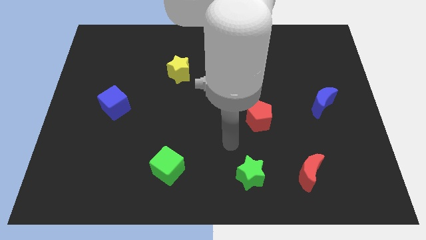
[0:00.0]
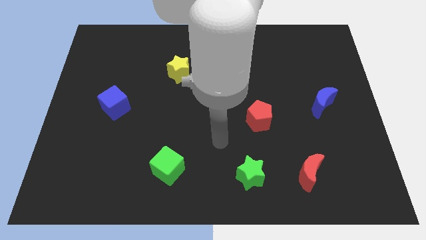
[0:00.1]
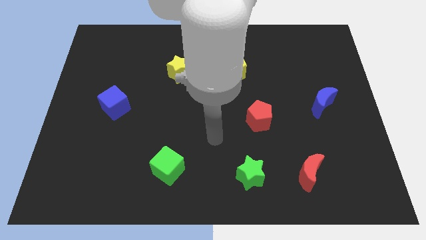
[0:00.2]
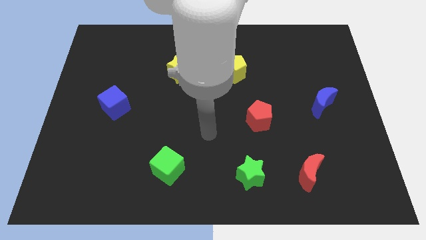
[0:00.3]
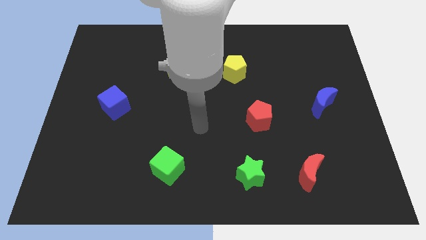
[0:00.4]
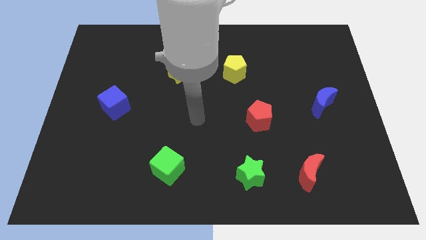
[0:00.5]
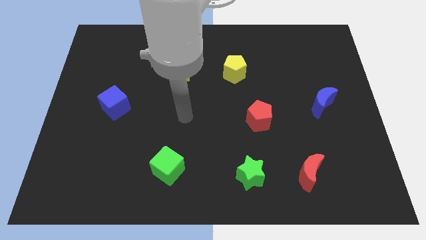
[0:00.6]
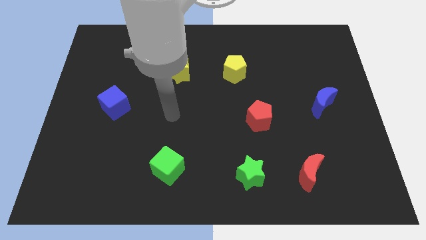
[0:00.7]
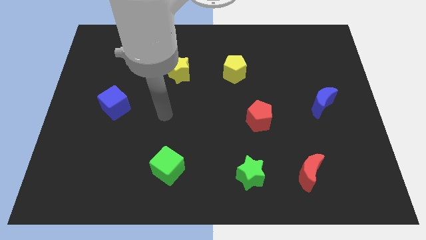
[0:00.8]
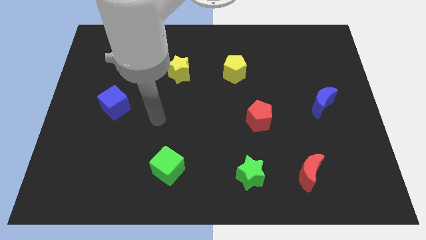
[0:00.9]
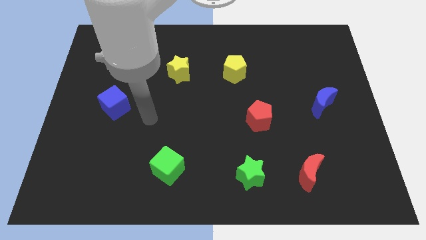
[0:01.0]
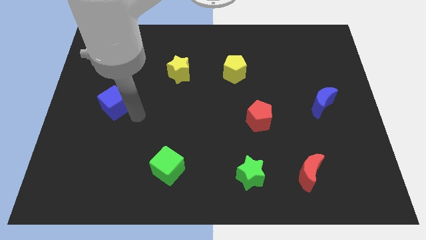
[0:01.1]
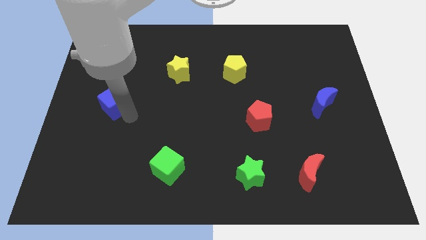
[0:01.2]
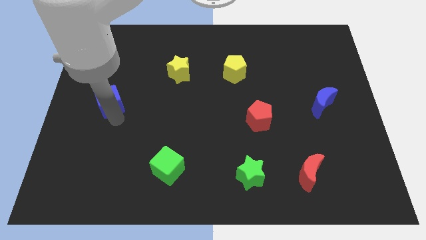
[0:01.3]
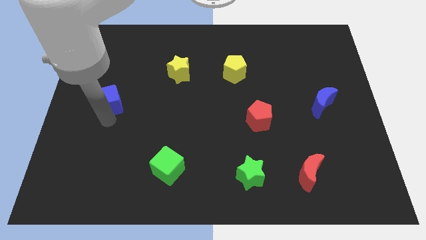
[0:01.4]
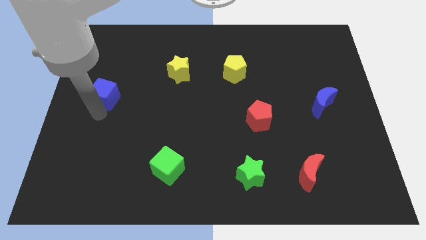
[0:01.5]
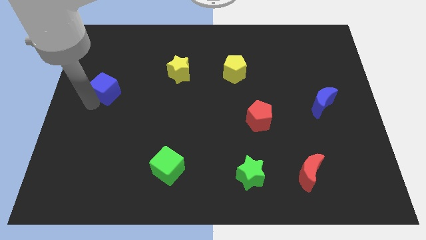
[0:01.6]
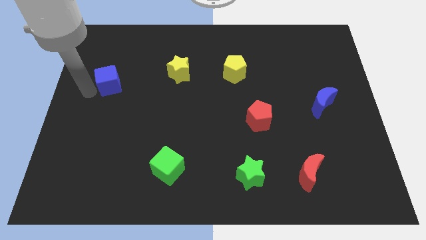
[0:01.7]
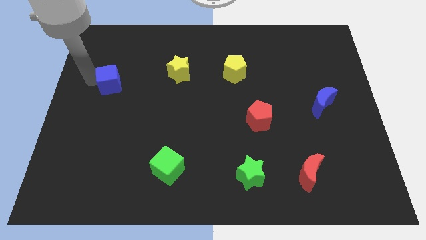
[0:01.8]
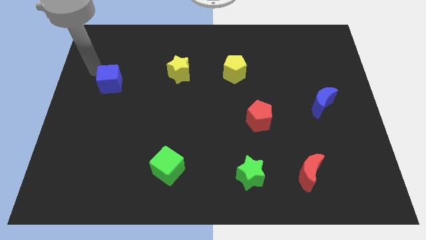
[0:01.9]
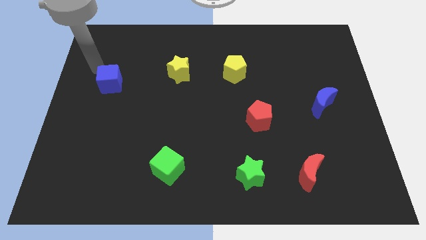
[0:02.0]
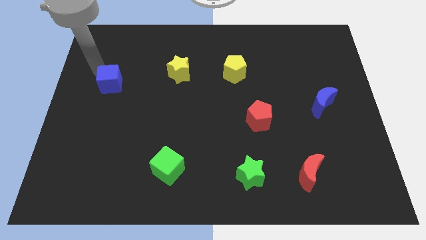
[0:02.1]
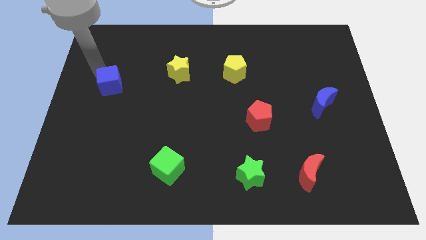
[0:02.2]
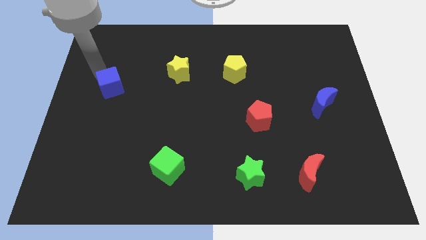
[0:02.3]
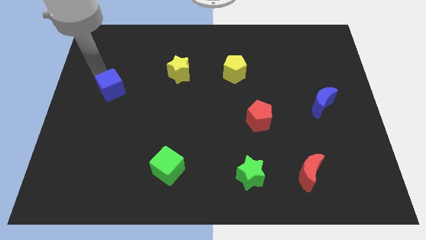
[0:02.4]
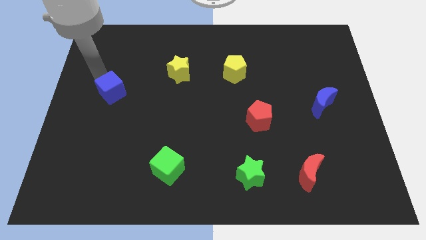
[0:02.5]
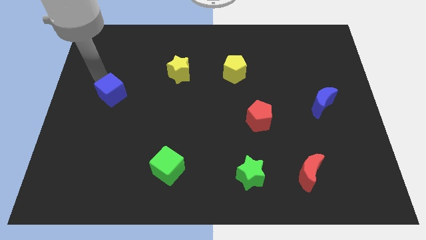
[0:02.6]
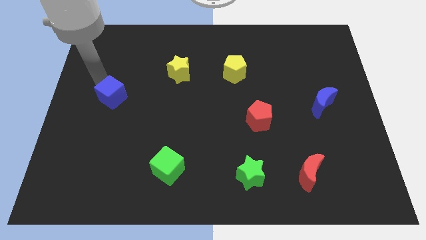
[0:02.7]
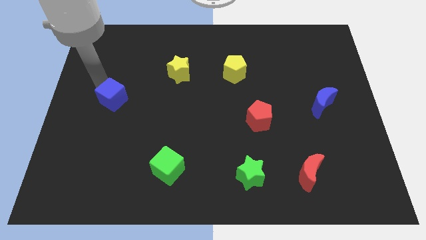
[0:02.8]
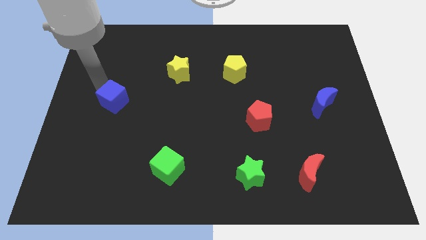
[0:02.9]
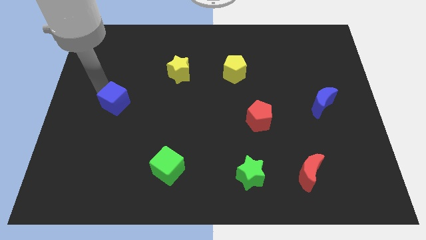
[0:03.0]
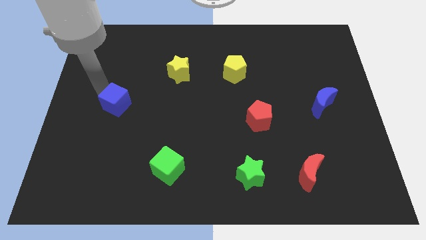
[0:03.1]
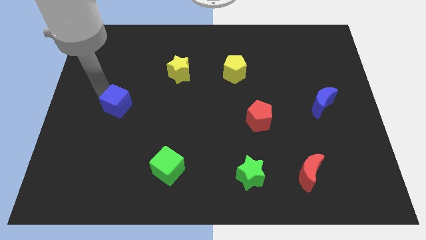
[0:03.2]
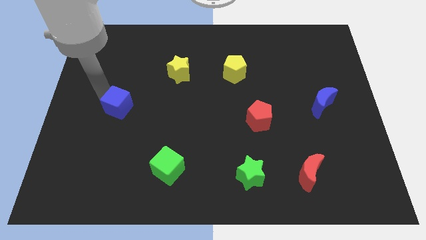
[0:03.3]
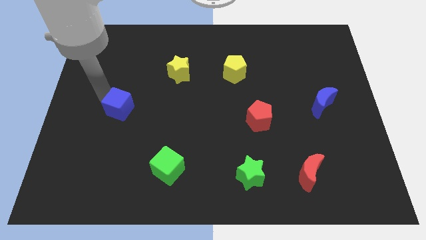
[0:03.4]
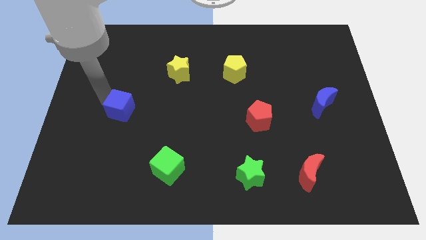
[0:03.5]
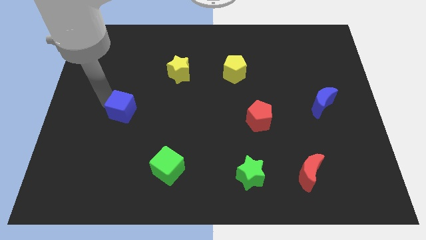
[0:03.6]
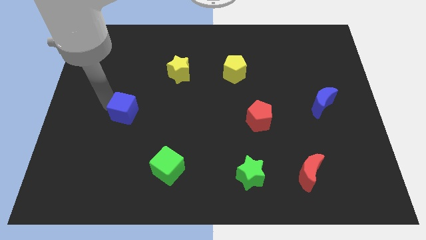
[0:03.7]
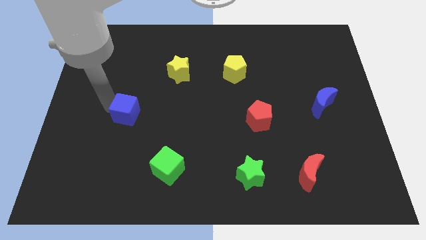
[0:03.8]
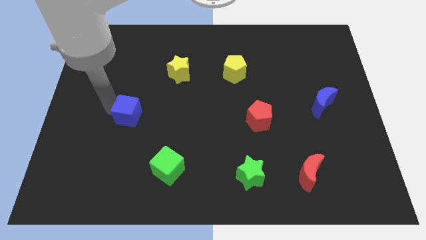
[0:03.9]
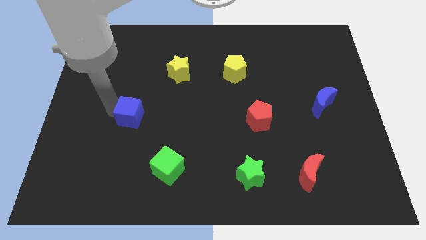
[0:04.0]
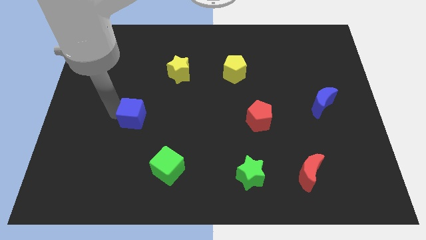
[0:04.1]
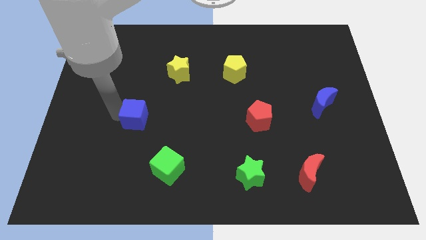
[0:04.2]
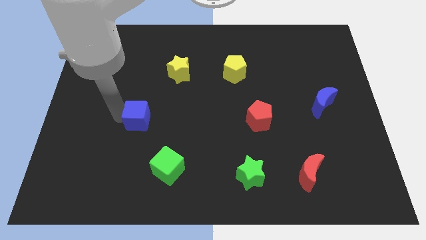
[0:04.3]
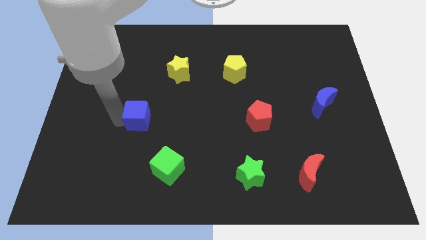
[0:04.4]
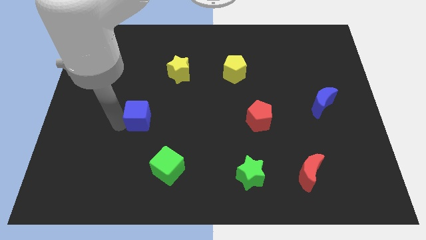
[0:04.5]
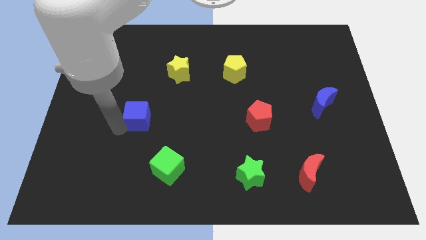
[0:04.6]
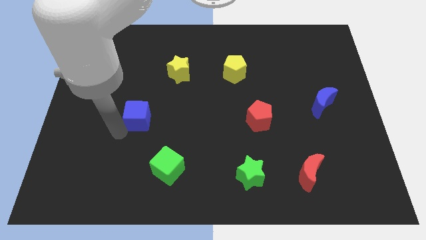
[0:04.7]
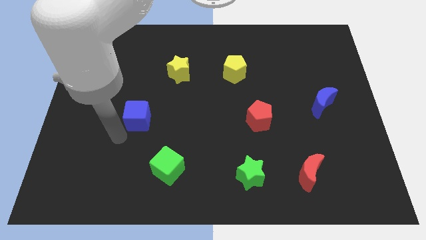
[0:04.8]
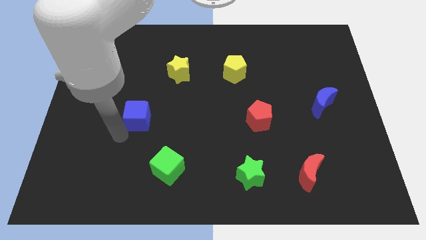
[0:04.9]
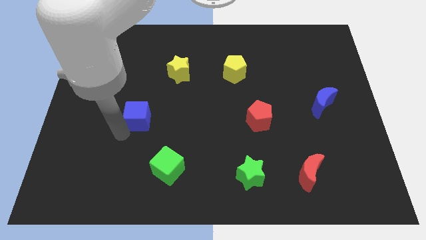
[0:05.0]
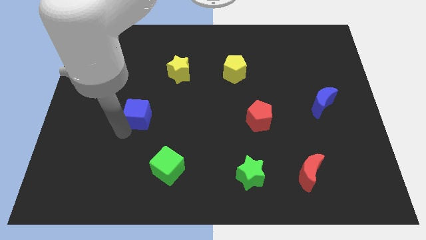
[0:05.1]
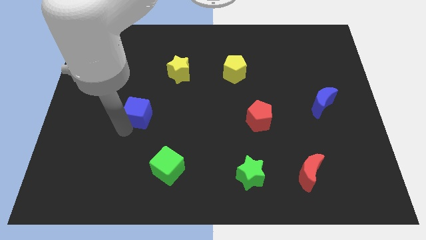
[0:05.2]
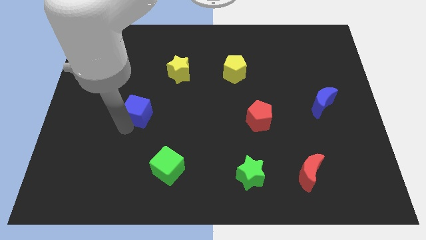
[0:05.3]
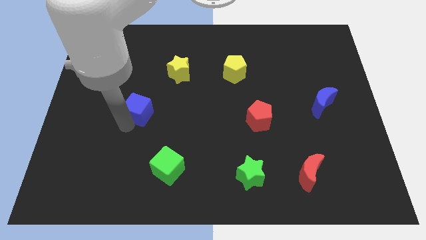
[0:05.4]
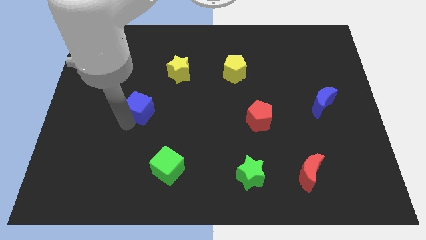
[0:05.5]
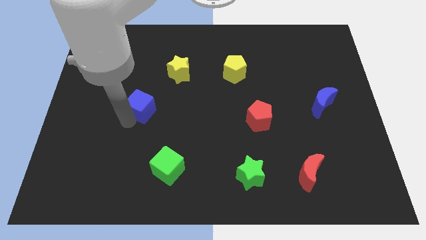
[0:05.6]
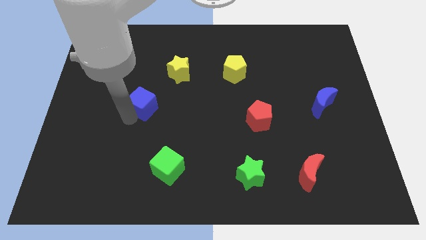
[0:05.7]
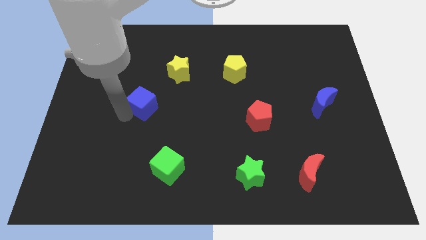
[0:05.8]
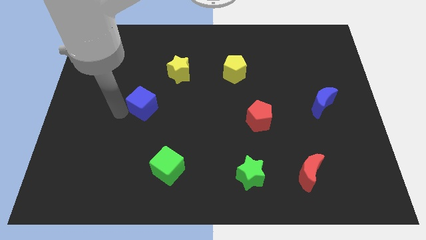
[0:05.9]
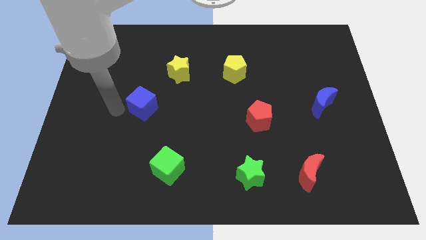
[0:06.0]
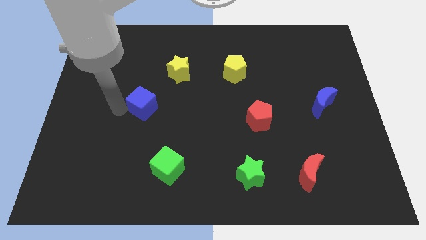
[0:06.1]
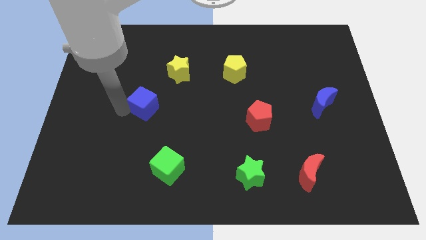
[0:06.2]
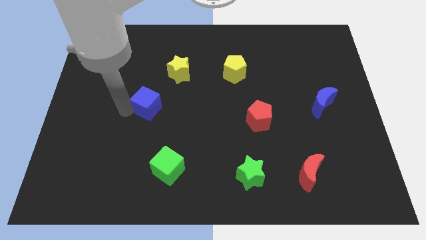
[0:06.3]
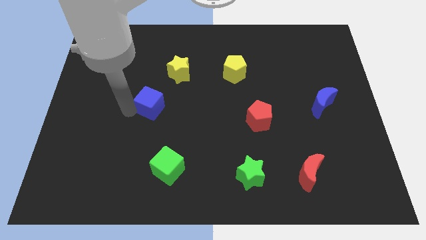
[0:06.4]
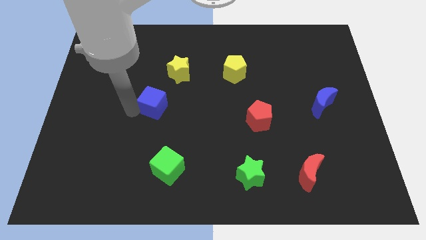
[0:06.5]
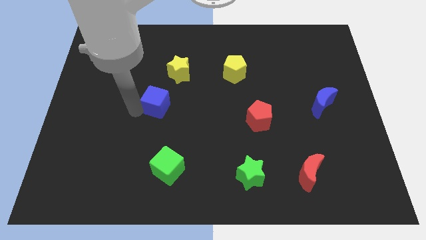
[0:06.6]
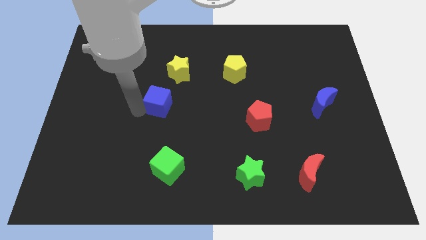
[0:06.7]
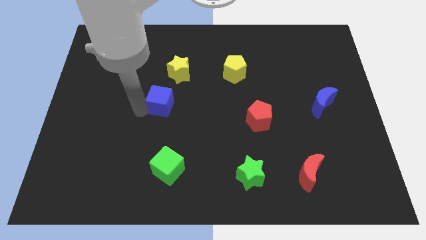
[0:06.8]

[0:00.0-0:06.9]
push the blue cube to the center
